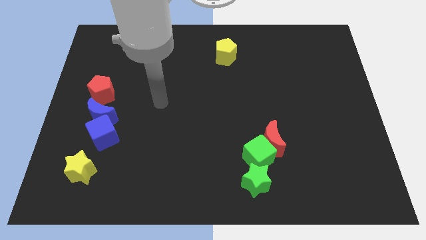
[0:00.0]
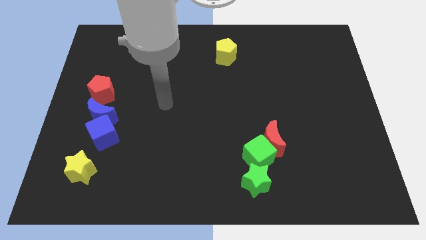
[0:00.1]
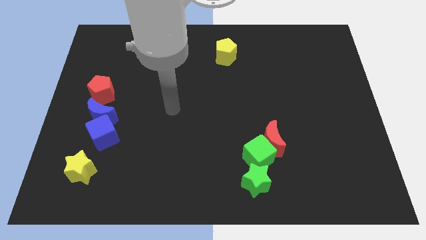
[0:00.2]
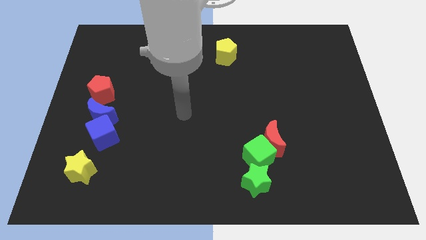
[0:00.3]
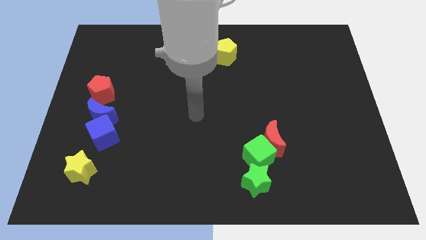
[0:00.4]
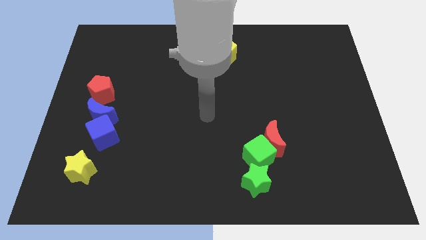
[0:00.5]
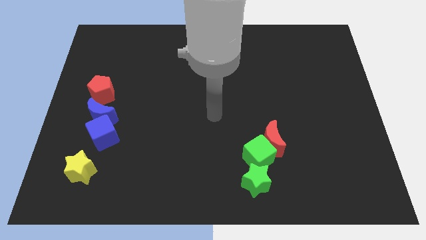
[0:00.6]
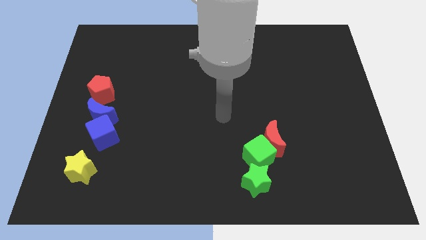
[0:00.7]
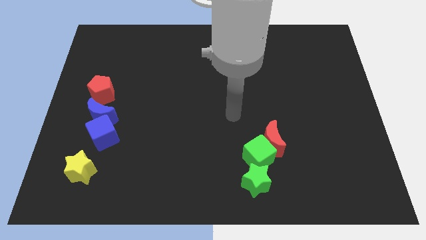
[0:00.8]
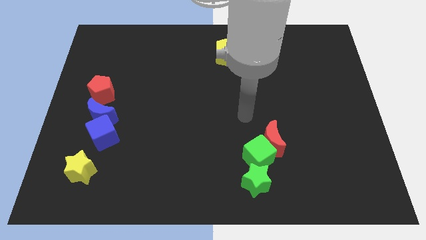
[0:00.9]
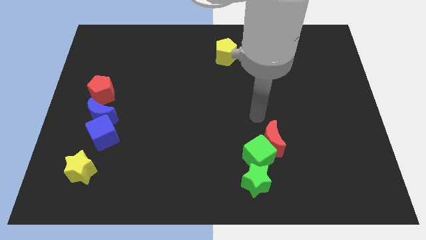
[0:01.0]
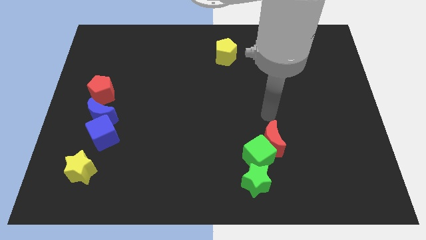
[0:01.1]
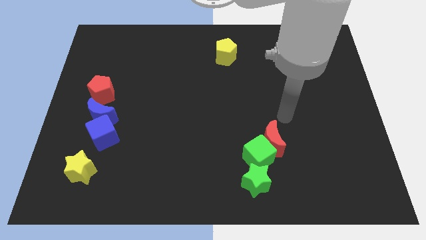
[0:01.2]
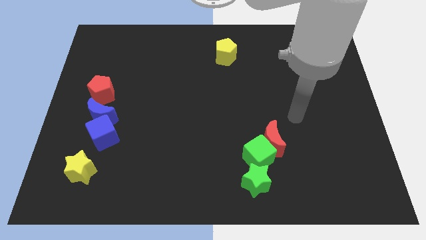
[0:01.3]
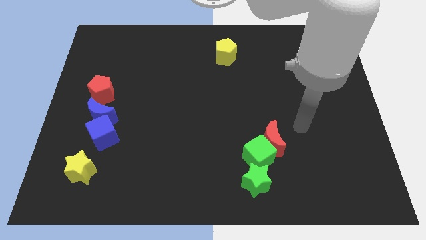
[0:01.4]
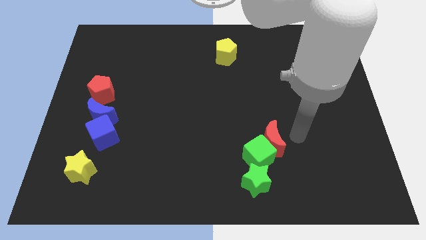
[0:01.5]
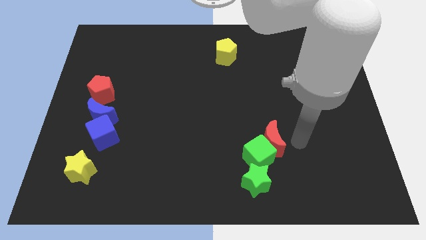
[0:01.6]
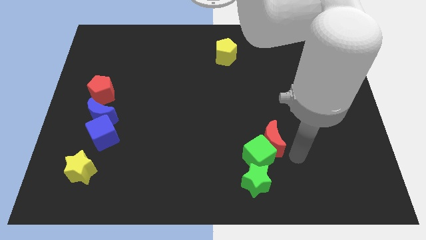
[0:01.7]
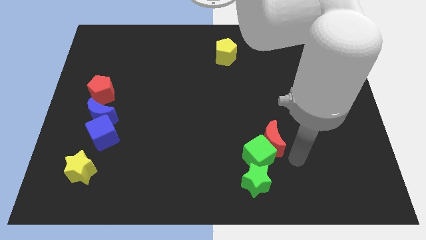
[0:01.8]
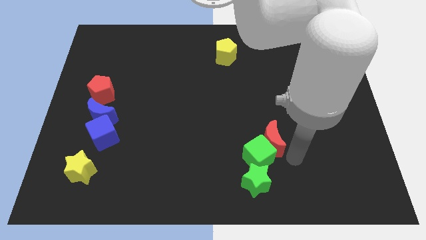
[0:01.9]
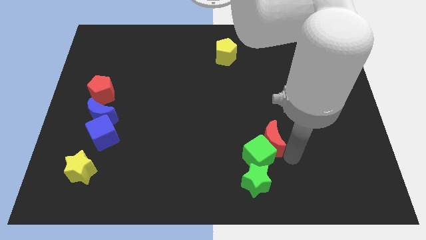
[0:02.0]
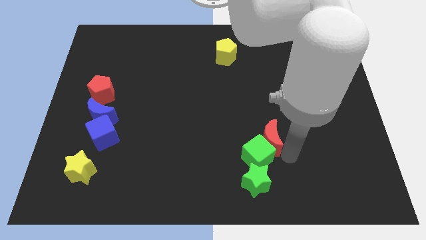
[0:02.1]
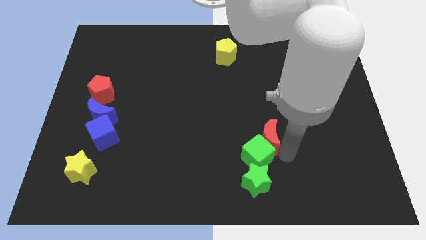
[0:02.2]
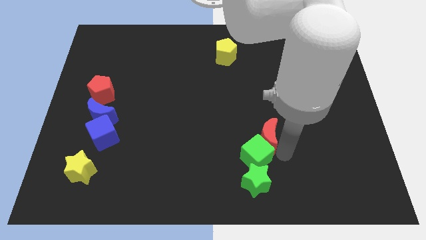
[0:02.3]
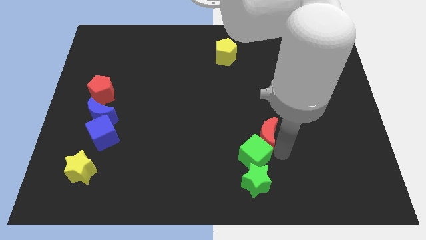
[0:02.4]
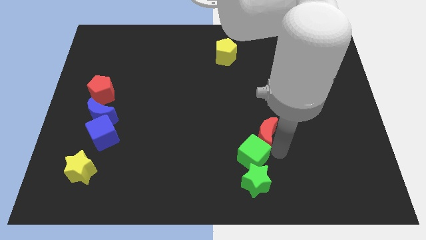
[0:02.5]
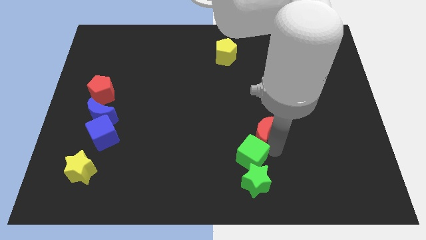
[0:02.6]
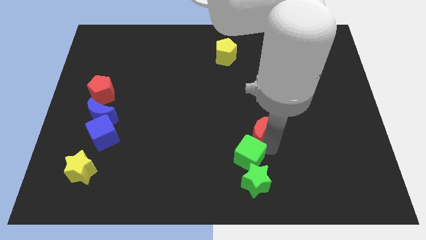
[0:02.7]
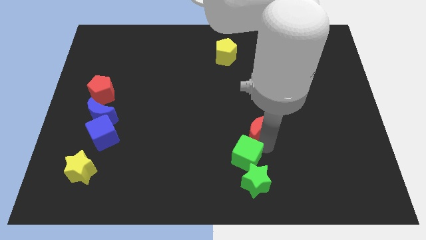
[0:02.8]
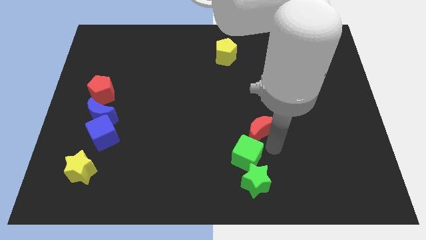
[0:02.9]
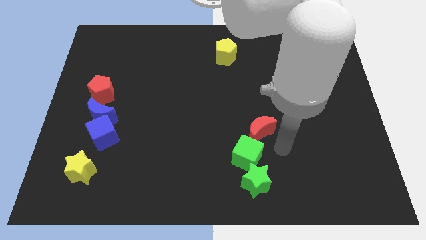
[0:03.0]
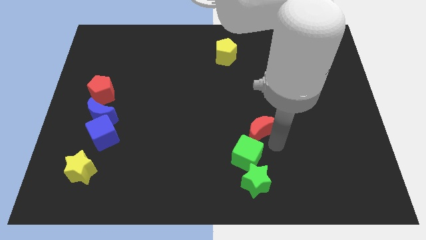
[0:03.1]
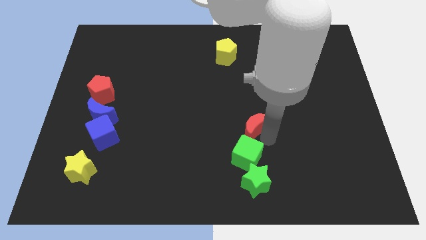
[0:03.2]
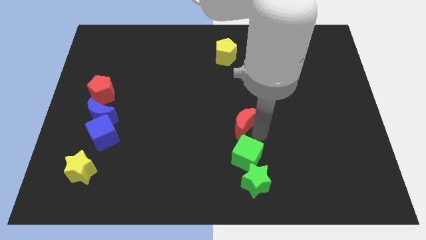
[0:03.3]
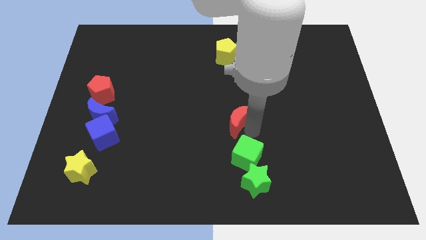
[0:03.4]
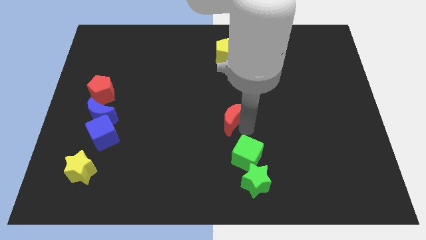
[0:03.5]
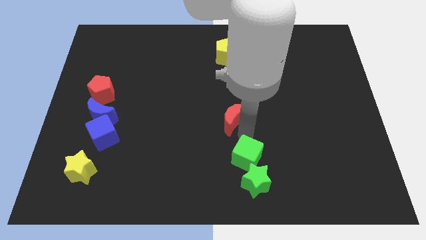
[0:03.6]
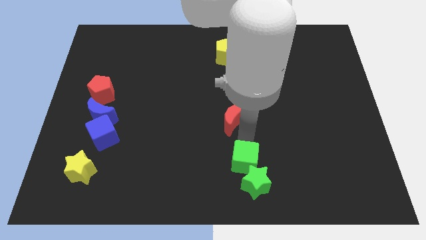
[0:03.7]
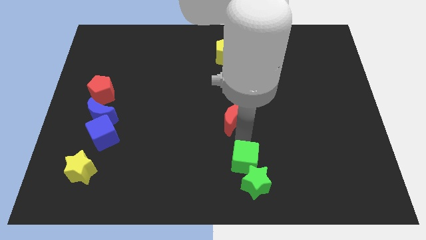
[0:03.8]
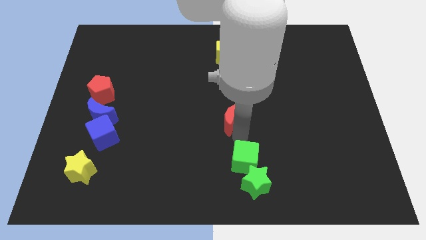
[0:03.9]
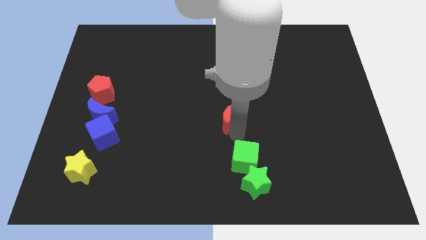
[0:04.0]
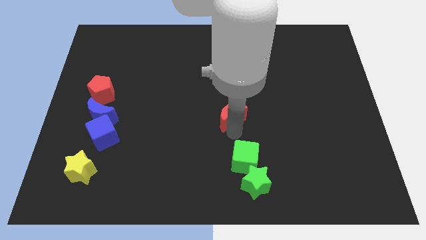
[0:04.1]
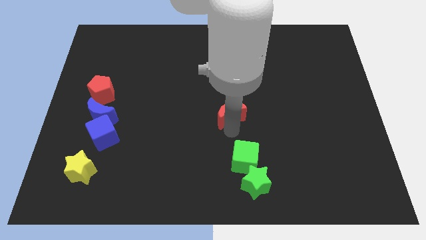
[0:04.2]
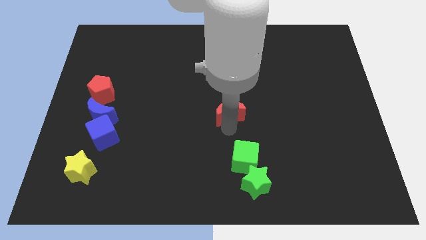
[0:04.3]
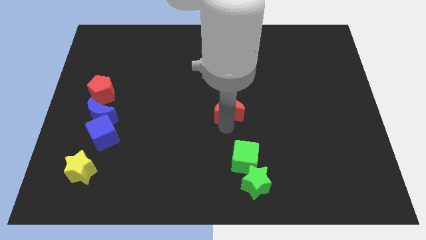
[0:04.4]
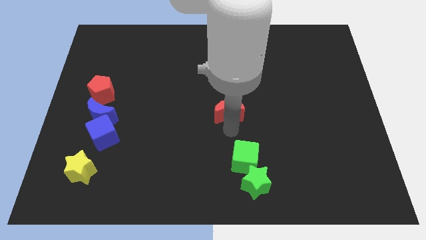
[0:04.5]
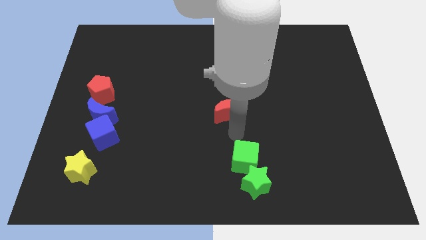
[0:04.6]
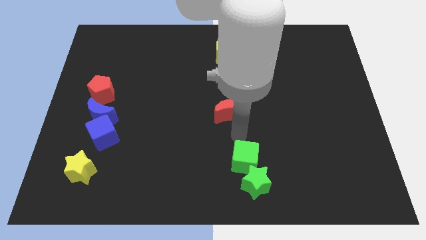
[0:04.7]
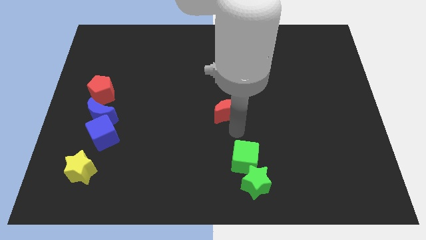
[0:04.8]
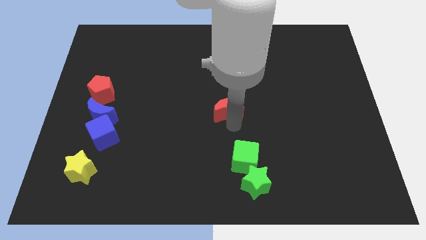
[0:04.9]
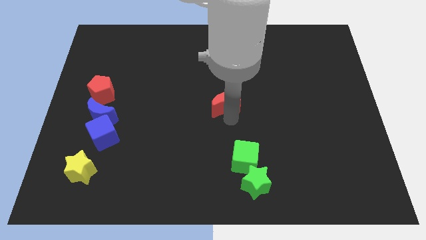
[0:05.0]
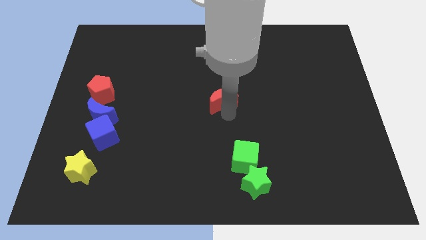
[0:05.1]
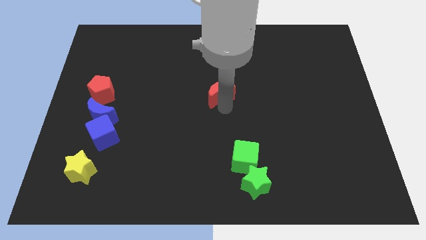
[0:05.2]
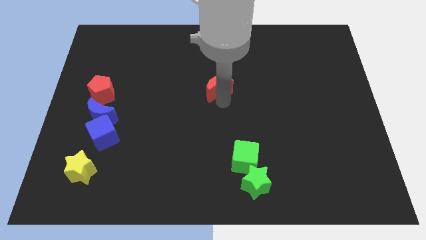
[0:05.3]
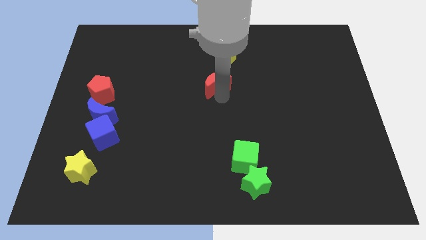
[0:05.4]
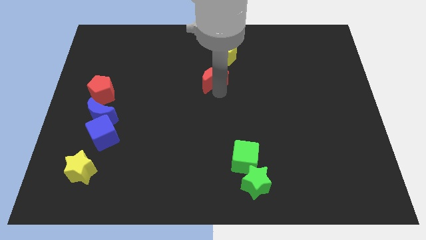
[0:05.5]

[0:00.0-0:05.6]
put the red moon to the bottom left side of the yellow pentagon

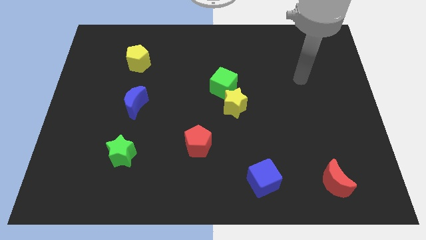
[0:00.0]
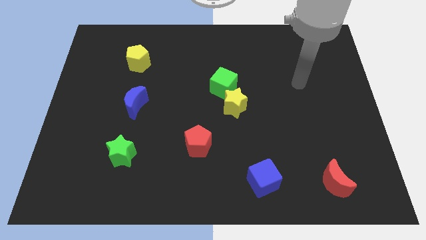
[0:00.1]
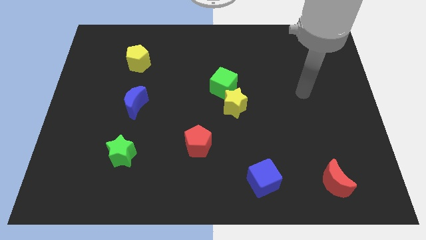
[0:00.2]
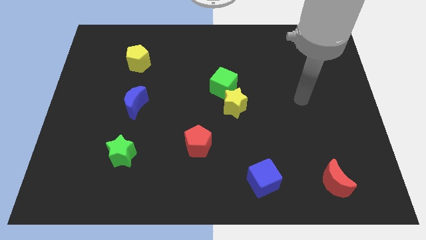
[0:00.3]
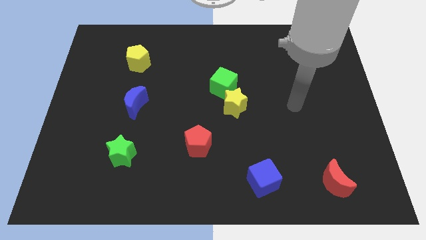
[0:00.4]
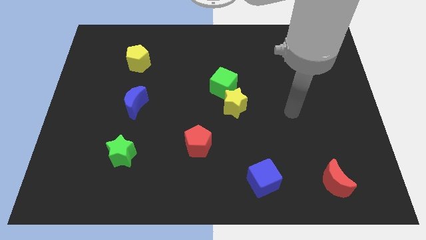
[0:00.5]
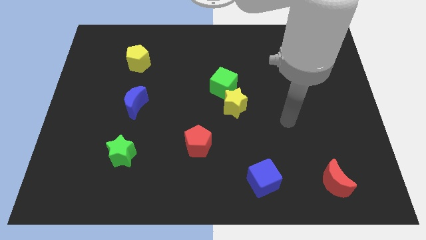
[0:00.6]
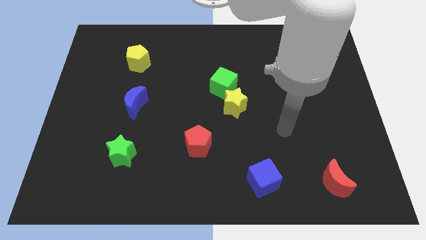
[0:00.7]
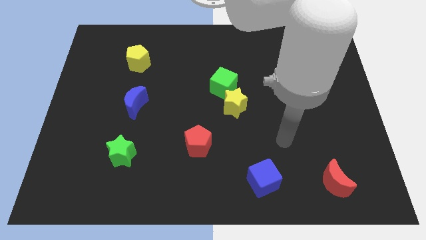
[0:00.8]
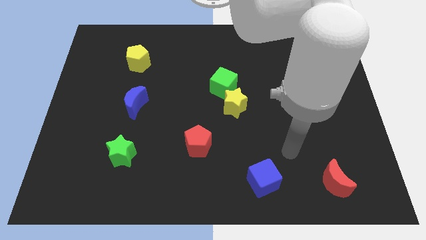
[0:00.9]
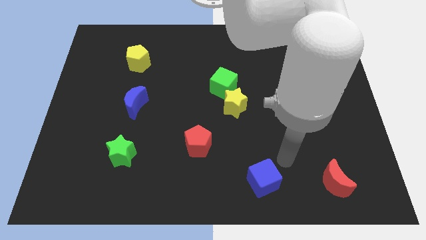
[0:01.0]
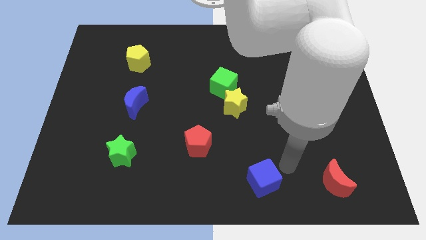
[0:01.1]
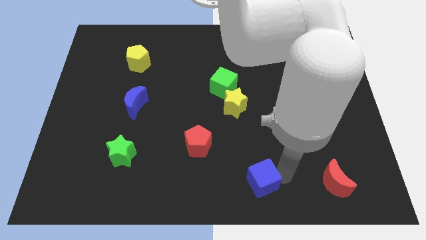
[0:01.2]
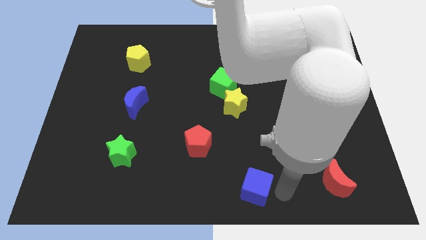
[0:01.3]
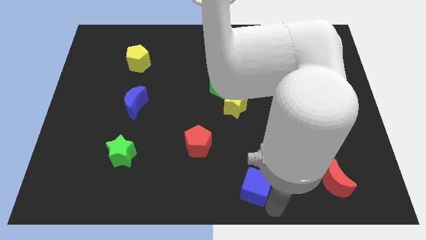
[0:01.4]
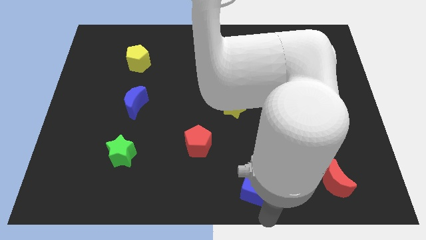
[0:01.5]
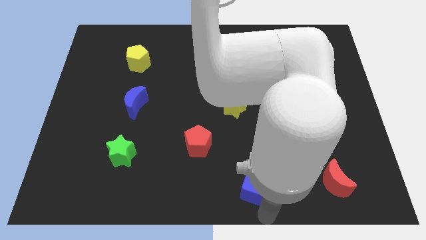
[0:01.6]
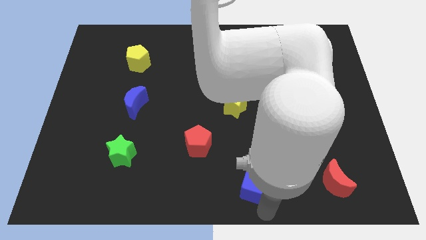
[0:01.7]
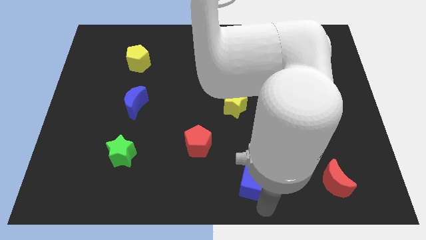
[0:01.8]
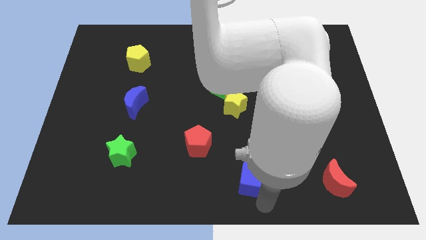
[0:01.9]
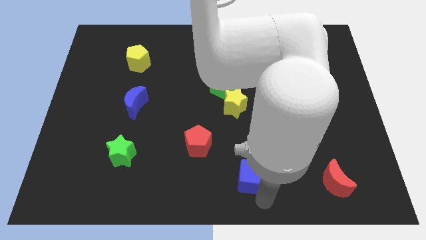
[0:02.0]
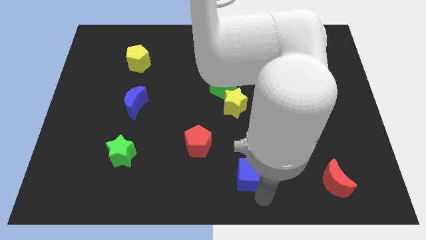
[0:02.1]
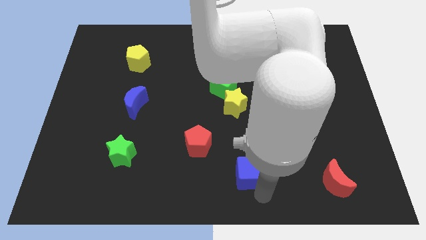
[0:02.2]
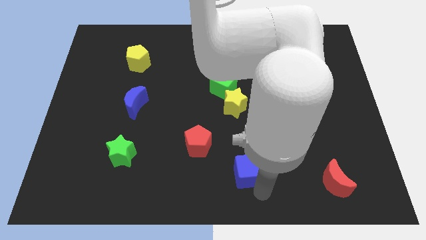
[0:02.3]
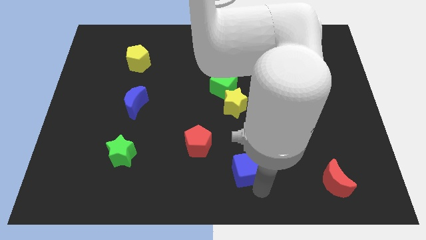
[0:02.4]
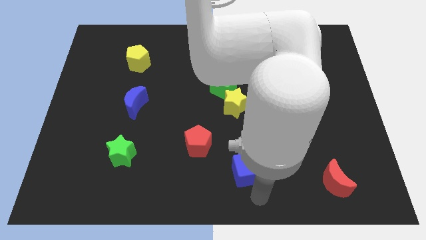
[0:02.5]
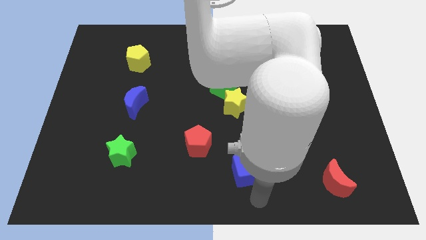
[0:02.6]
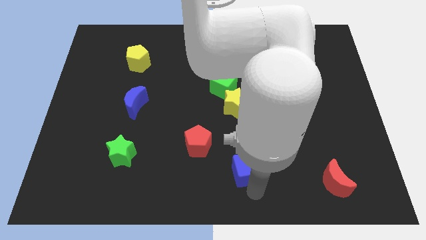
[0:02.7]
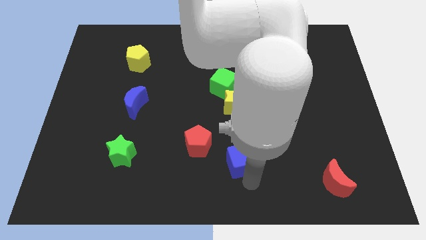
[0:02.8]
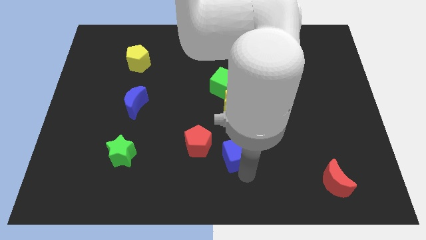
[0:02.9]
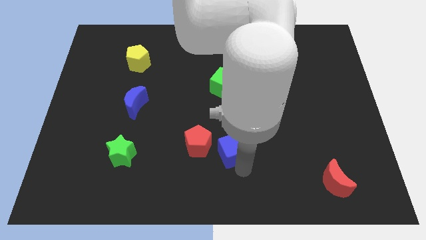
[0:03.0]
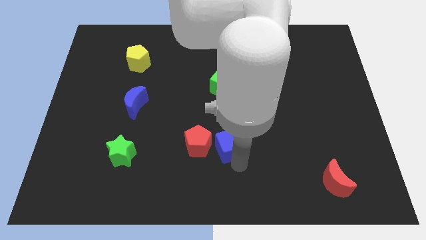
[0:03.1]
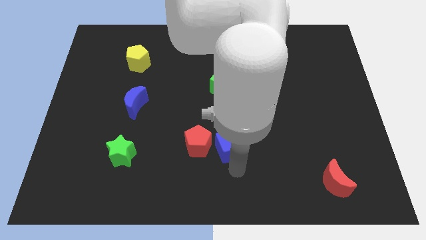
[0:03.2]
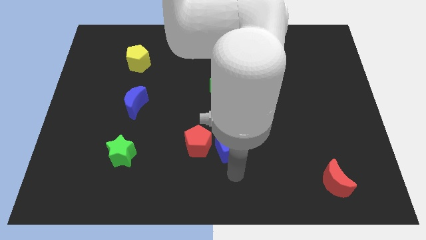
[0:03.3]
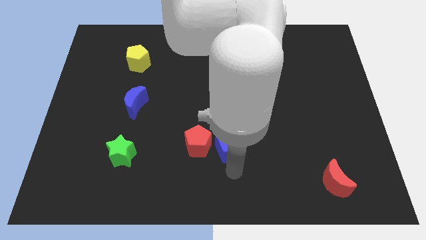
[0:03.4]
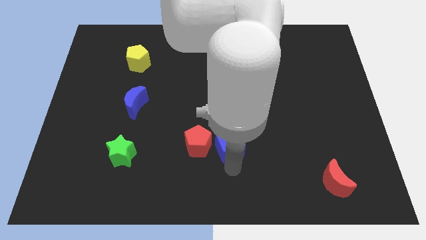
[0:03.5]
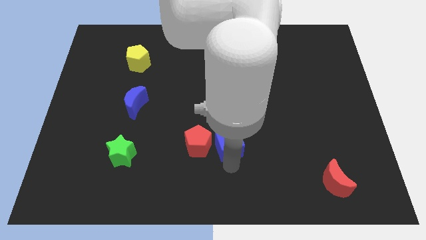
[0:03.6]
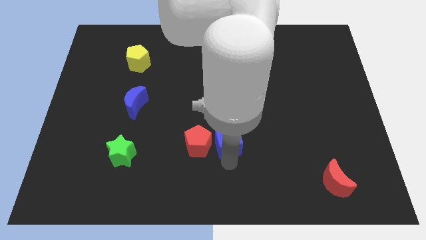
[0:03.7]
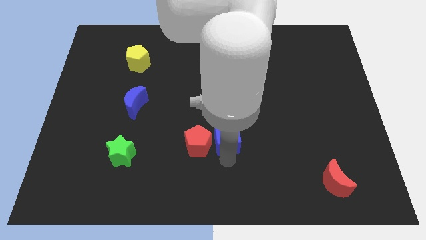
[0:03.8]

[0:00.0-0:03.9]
push the blue cube below the green cube
